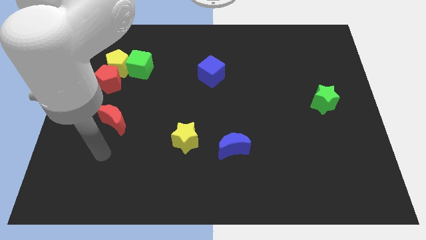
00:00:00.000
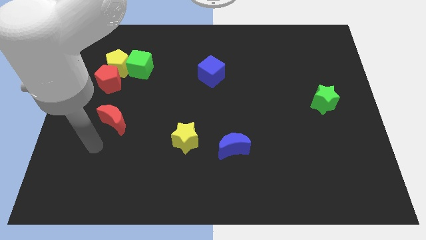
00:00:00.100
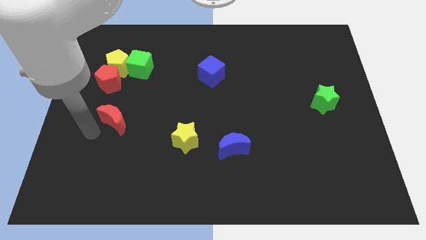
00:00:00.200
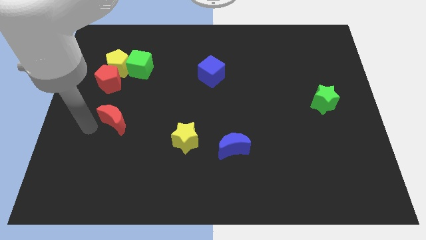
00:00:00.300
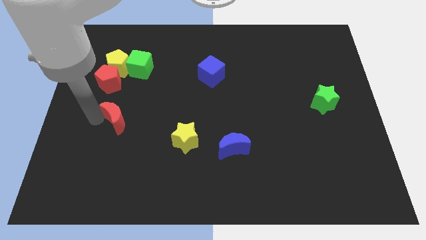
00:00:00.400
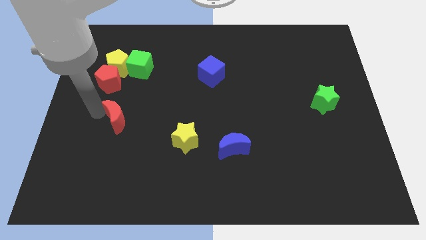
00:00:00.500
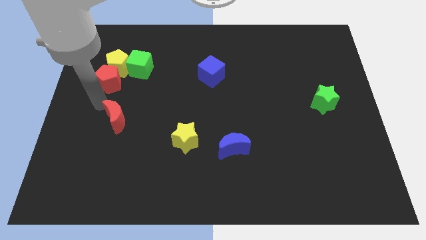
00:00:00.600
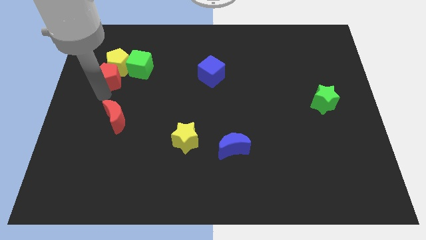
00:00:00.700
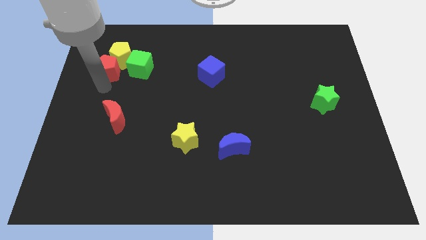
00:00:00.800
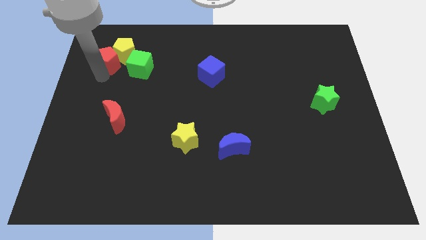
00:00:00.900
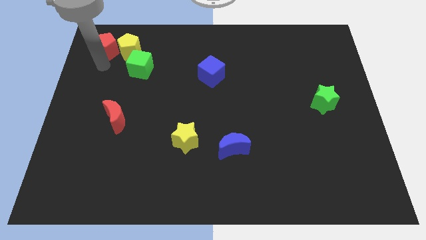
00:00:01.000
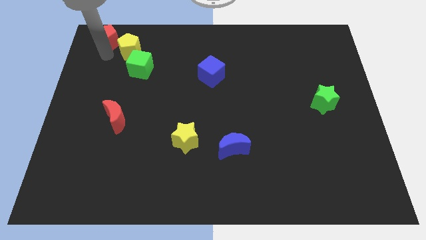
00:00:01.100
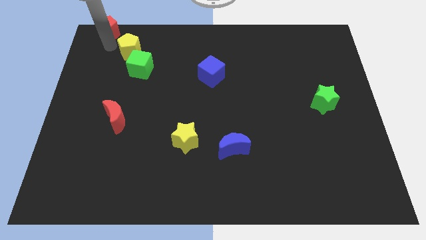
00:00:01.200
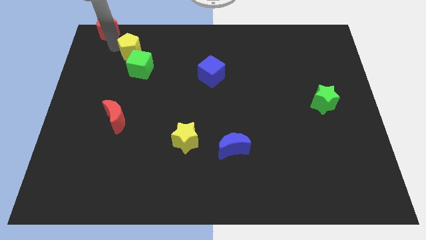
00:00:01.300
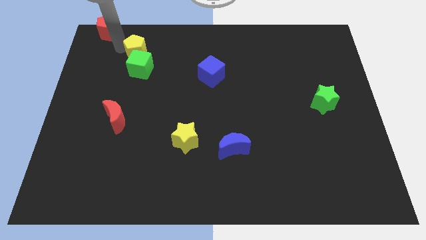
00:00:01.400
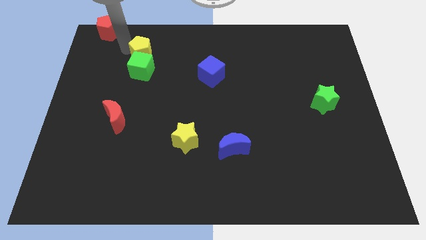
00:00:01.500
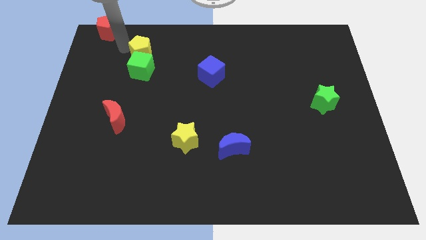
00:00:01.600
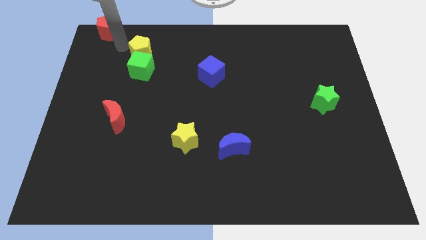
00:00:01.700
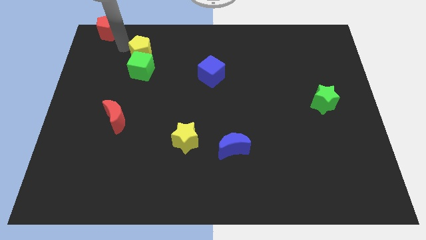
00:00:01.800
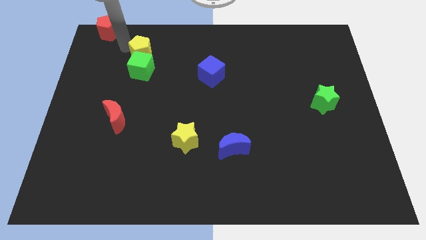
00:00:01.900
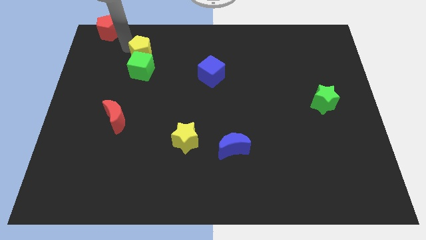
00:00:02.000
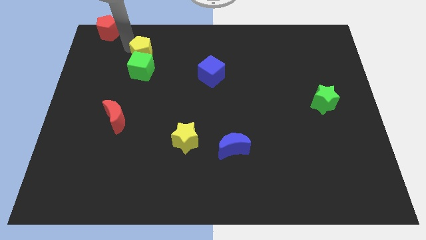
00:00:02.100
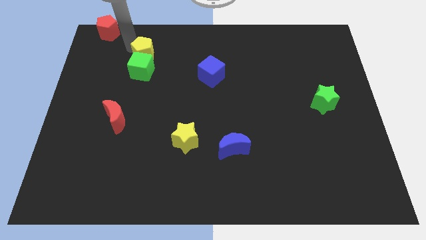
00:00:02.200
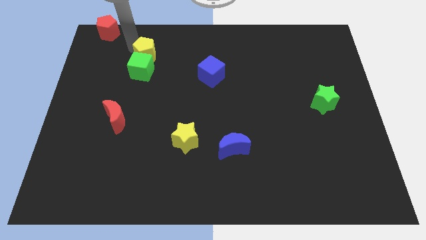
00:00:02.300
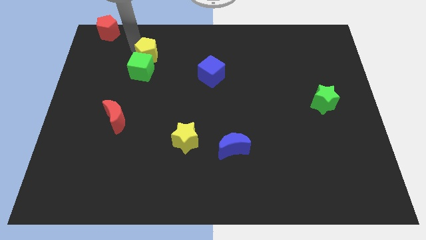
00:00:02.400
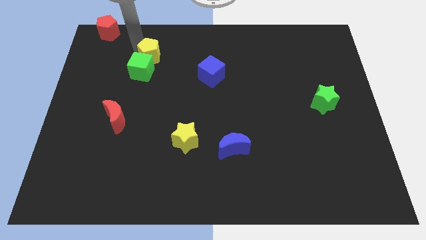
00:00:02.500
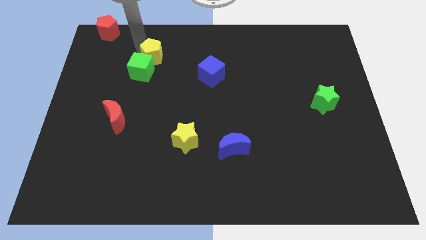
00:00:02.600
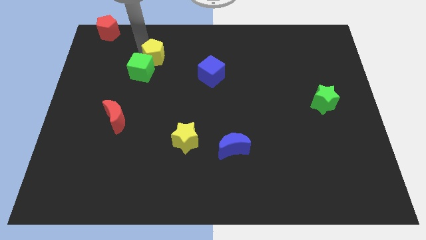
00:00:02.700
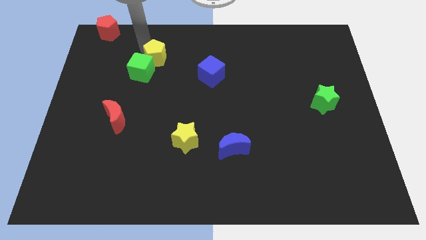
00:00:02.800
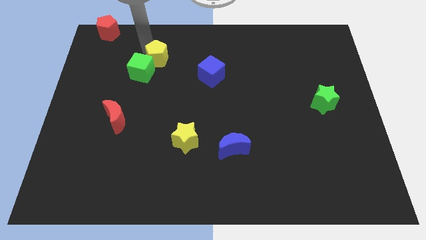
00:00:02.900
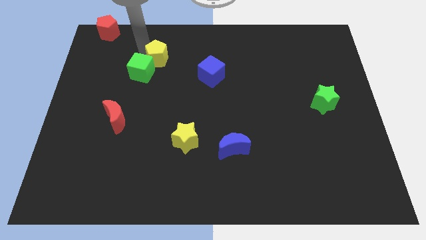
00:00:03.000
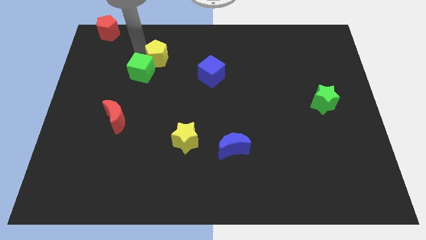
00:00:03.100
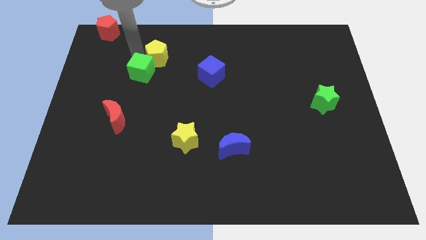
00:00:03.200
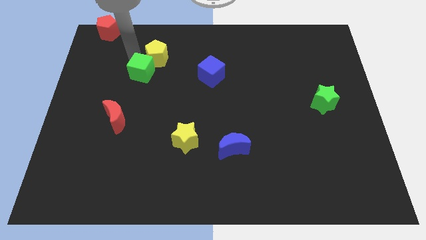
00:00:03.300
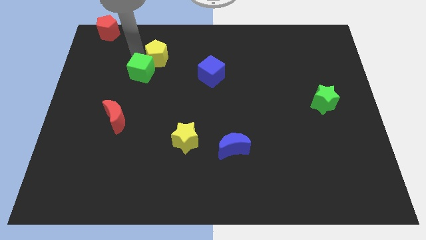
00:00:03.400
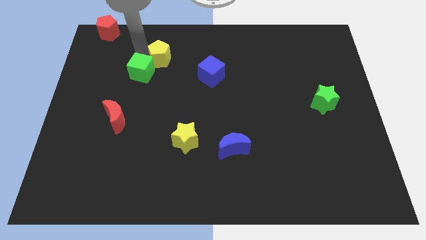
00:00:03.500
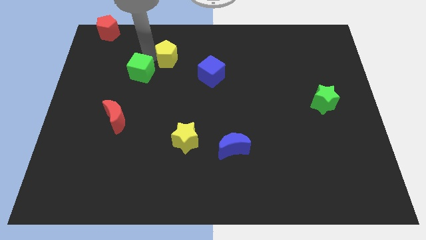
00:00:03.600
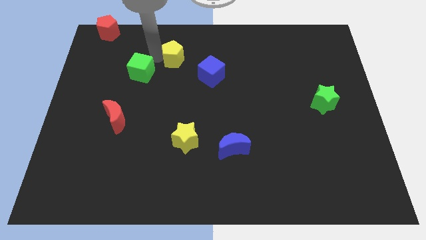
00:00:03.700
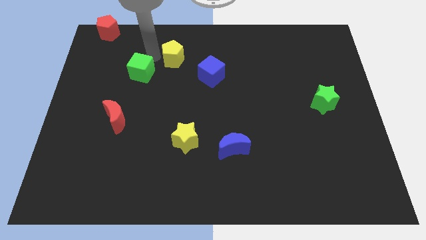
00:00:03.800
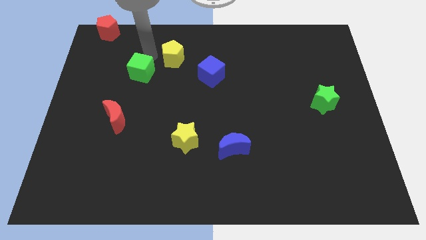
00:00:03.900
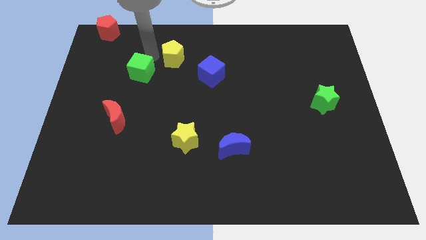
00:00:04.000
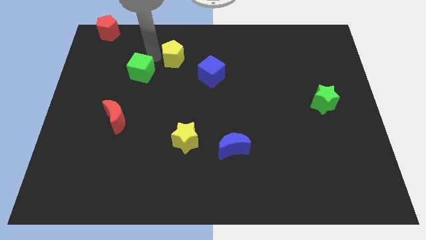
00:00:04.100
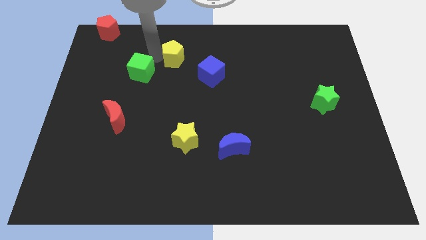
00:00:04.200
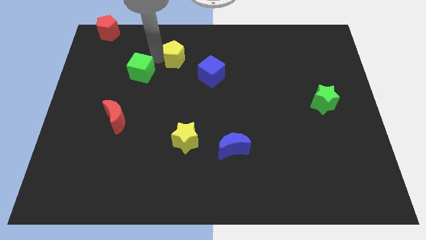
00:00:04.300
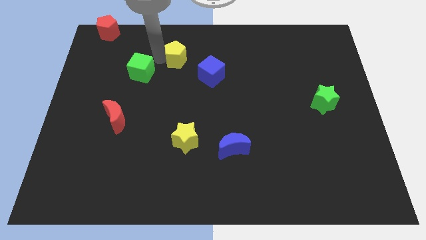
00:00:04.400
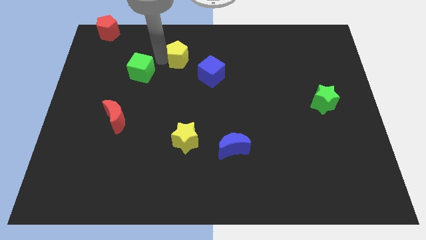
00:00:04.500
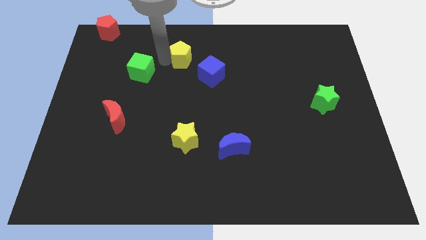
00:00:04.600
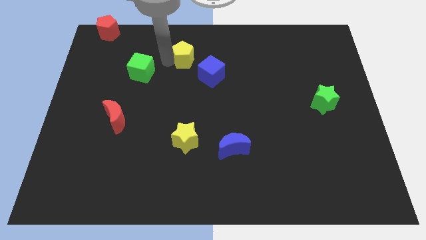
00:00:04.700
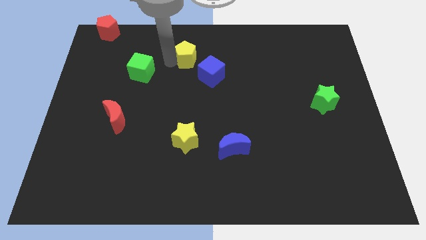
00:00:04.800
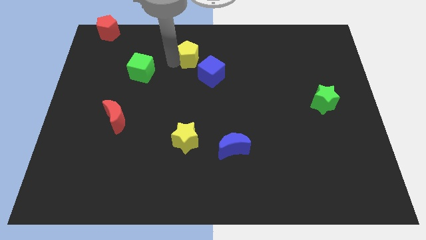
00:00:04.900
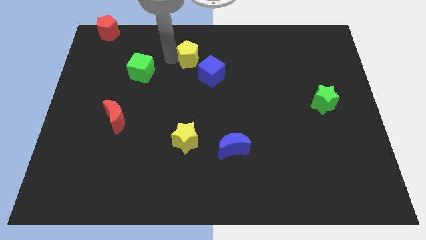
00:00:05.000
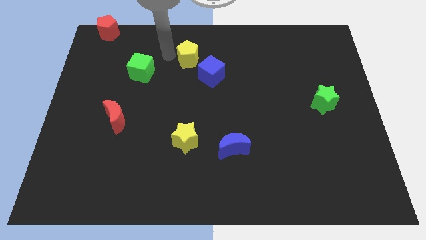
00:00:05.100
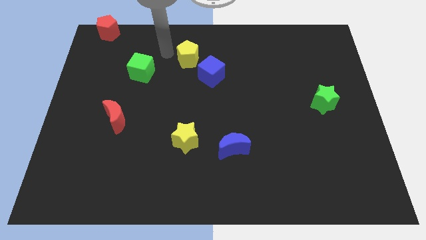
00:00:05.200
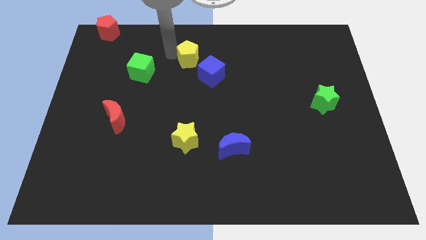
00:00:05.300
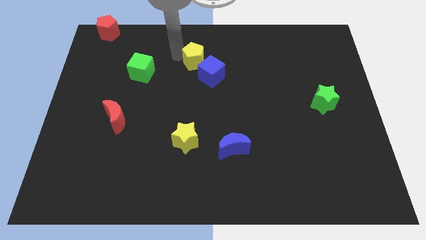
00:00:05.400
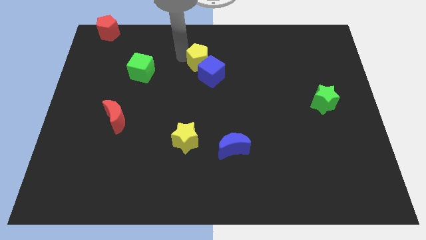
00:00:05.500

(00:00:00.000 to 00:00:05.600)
move the yellow pentagon to the right

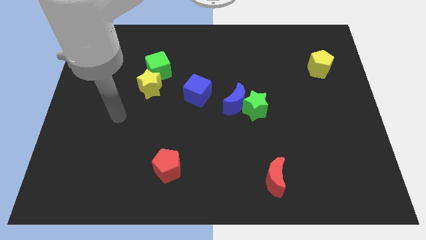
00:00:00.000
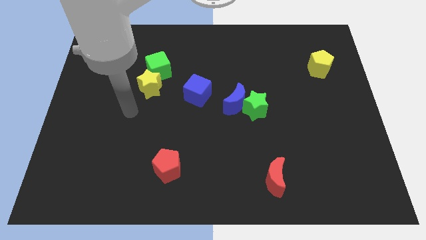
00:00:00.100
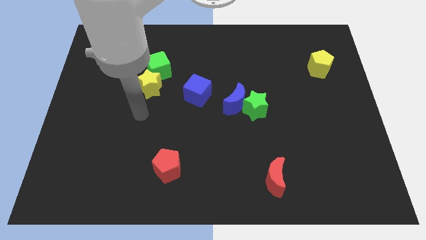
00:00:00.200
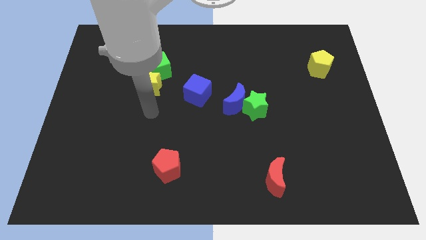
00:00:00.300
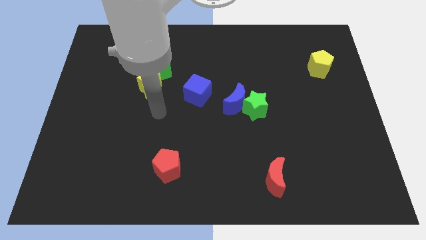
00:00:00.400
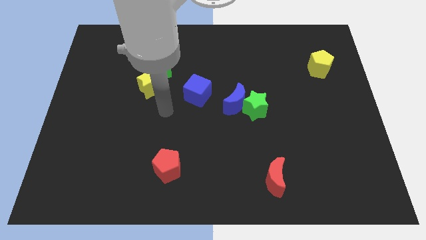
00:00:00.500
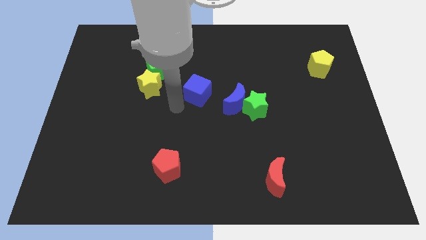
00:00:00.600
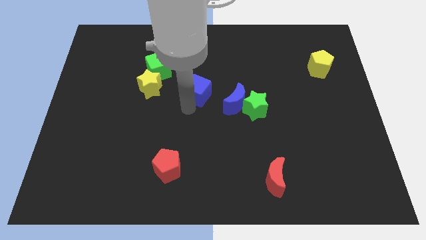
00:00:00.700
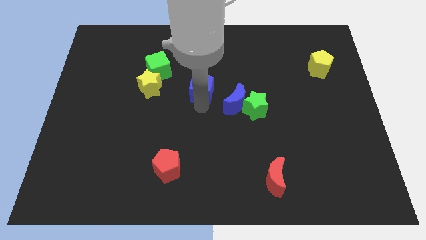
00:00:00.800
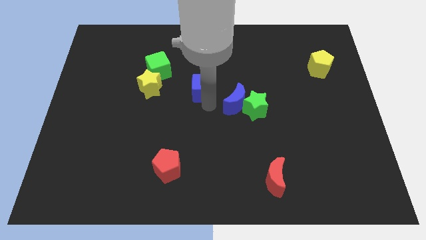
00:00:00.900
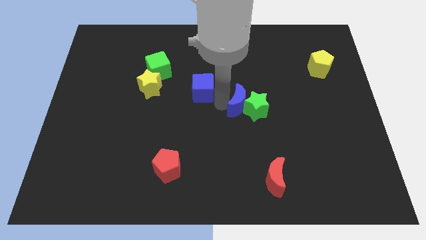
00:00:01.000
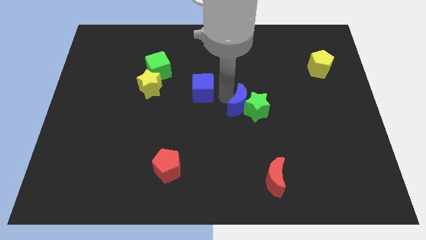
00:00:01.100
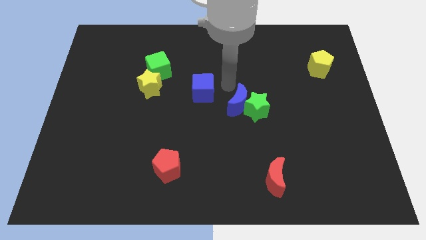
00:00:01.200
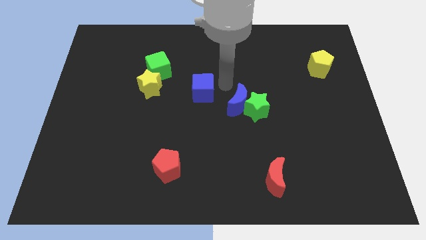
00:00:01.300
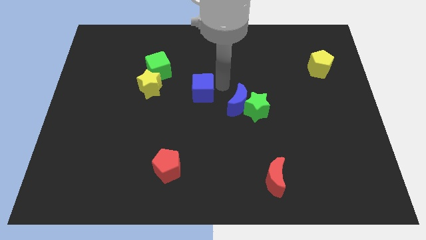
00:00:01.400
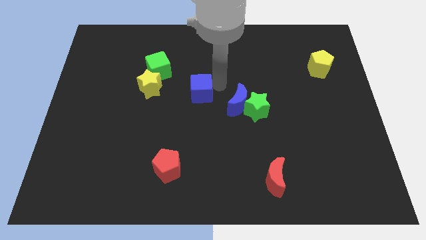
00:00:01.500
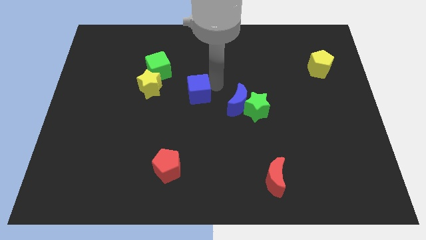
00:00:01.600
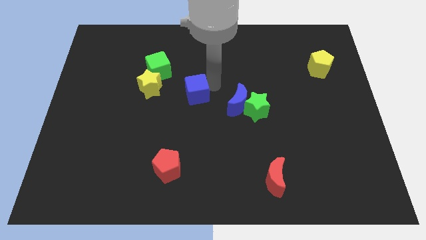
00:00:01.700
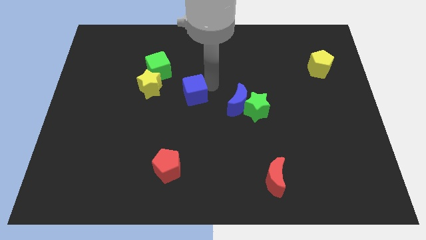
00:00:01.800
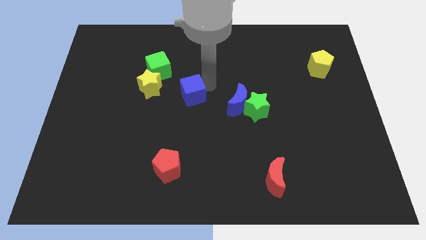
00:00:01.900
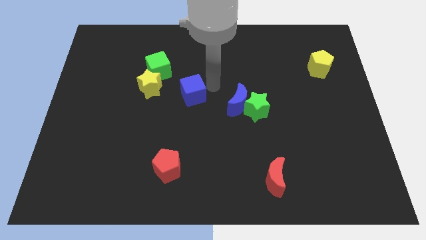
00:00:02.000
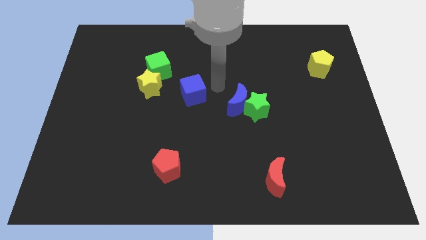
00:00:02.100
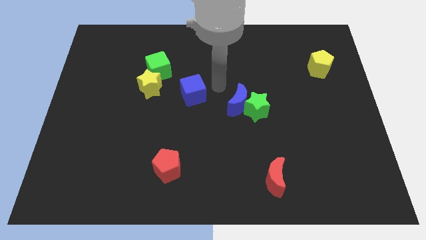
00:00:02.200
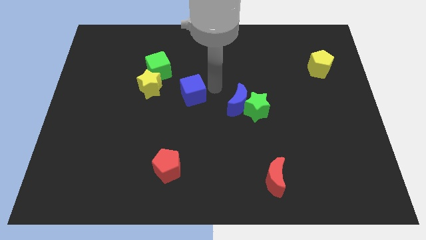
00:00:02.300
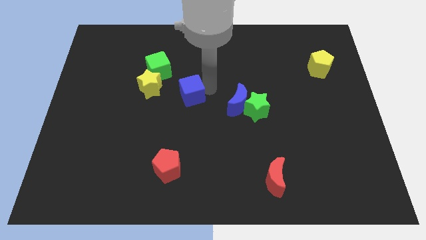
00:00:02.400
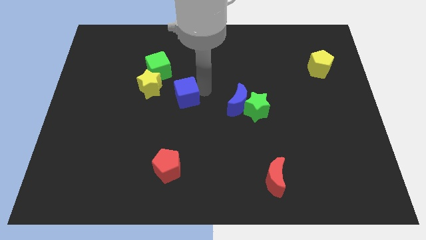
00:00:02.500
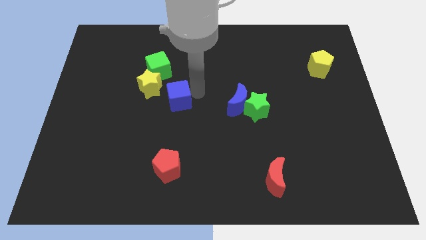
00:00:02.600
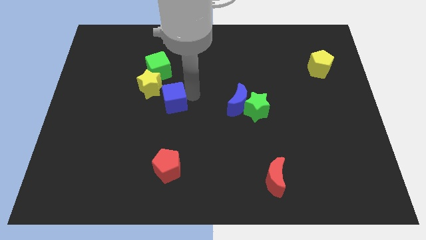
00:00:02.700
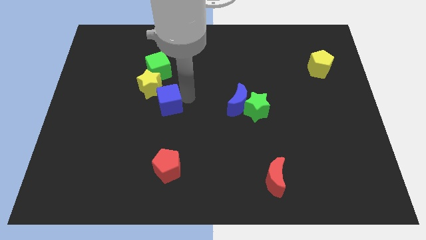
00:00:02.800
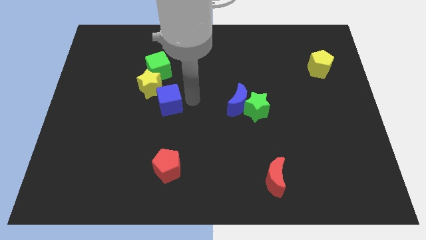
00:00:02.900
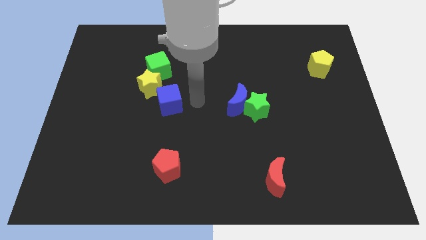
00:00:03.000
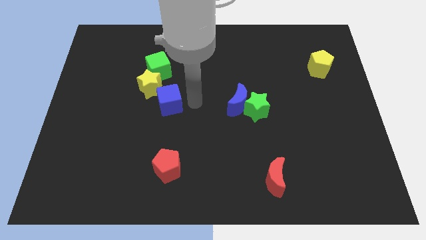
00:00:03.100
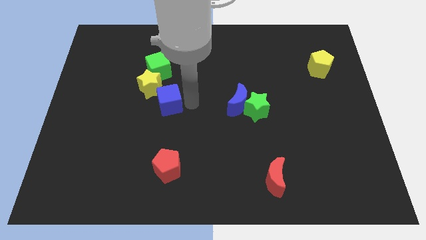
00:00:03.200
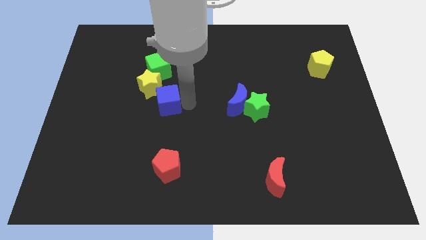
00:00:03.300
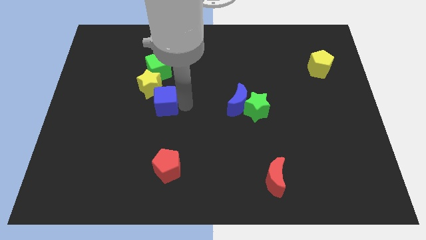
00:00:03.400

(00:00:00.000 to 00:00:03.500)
slide the blue cube to the left slightly
